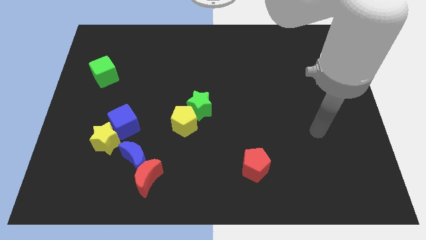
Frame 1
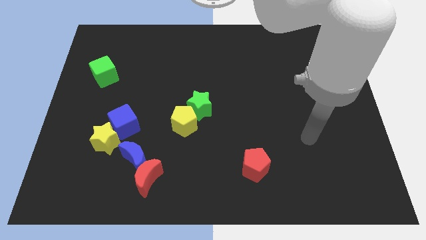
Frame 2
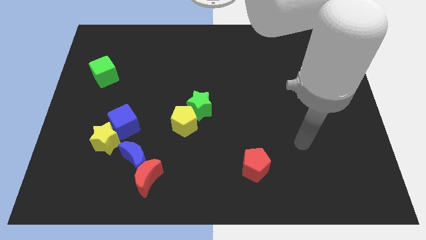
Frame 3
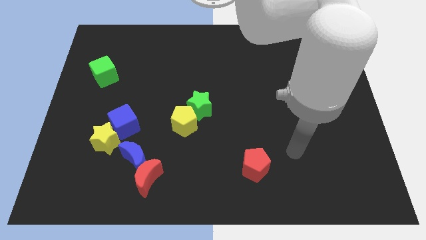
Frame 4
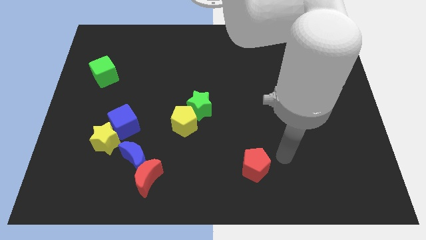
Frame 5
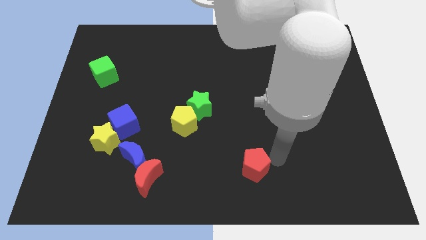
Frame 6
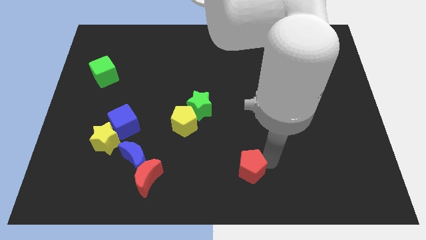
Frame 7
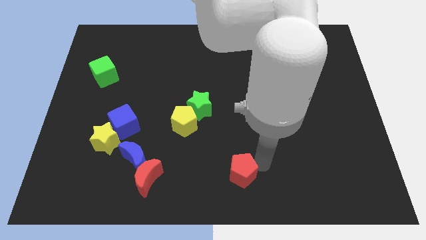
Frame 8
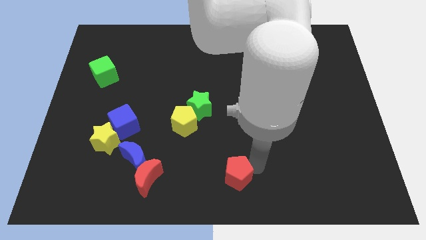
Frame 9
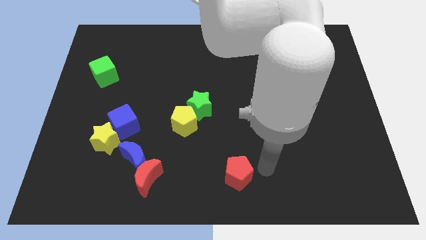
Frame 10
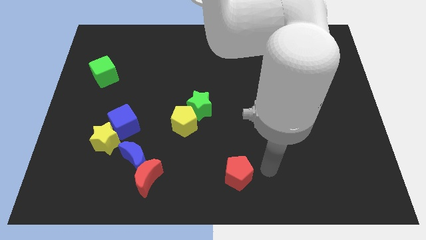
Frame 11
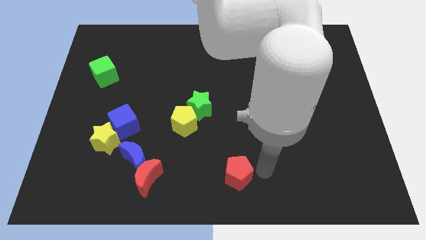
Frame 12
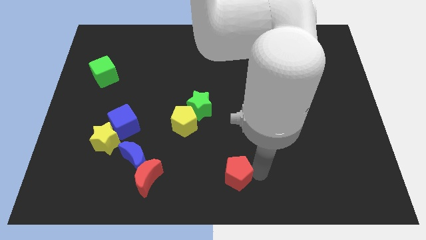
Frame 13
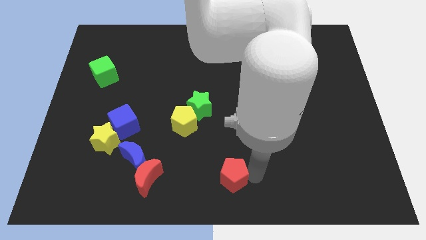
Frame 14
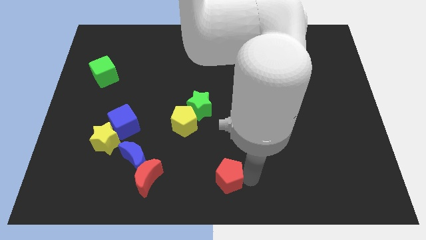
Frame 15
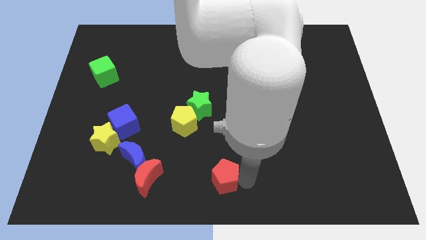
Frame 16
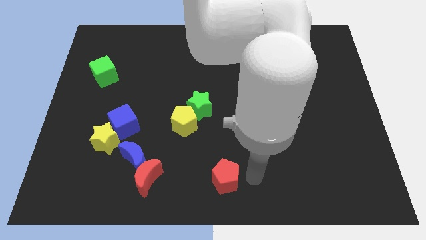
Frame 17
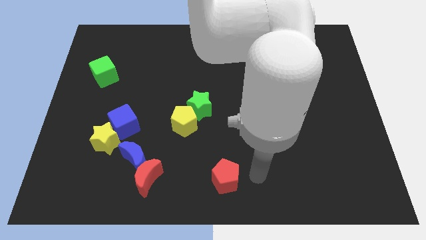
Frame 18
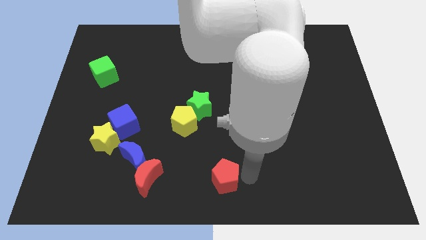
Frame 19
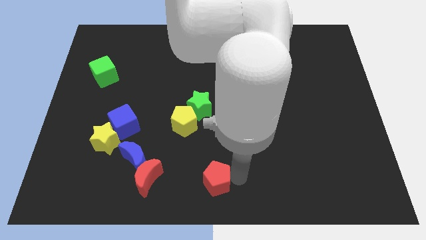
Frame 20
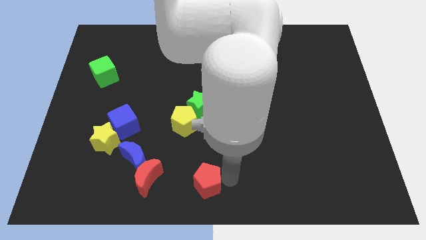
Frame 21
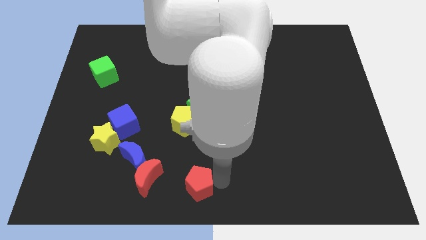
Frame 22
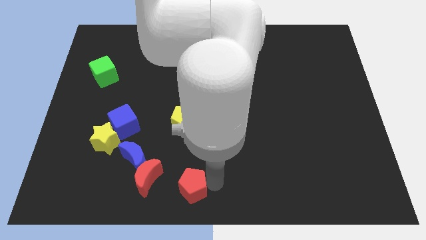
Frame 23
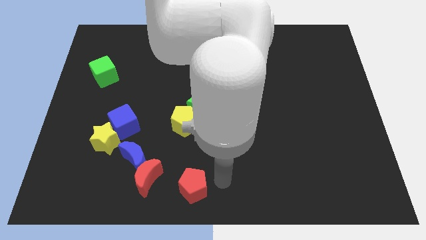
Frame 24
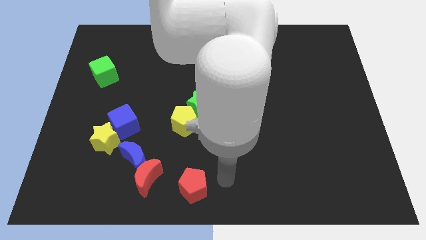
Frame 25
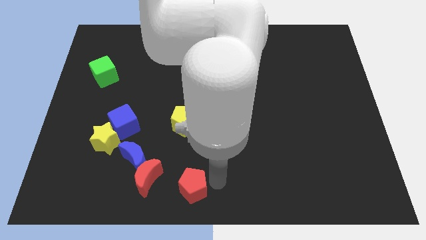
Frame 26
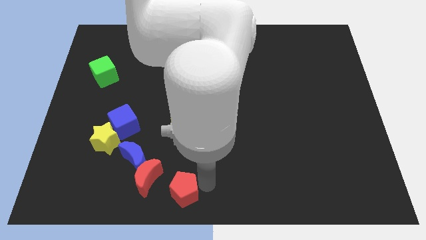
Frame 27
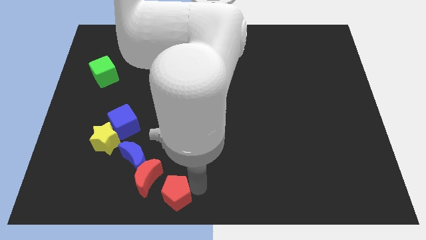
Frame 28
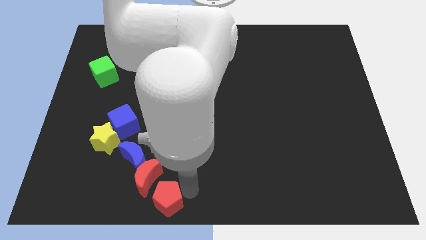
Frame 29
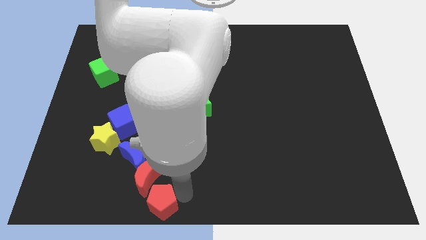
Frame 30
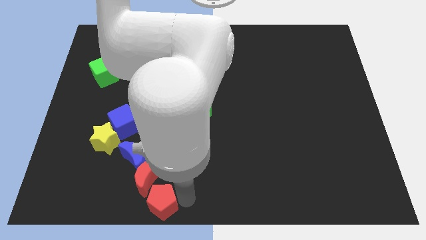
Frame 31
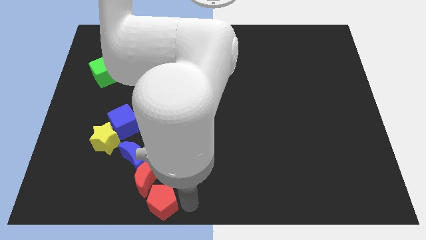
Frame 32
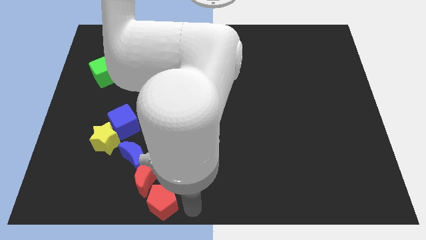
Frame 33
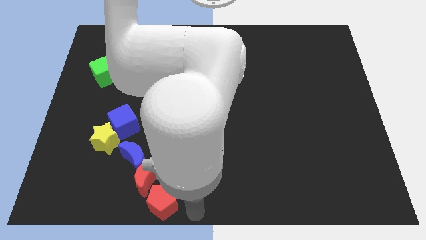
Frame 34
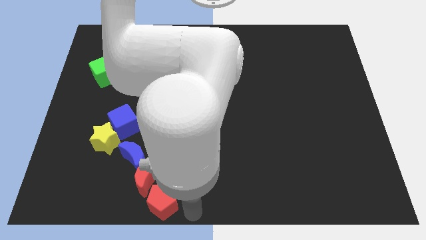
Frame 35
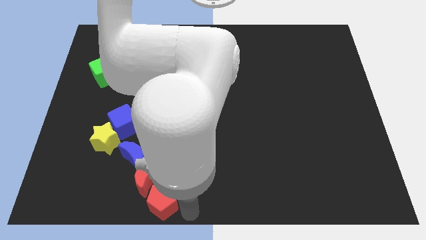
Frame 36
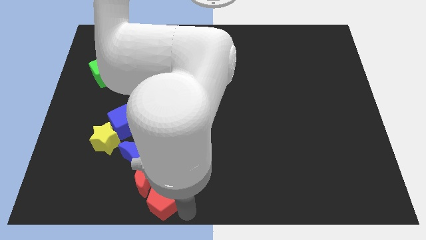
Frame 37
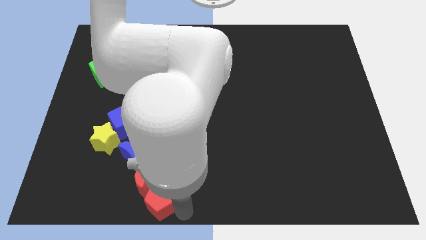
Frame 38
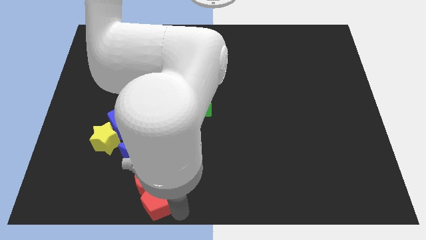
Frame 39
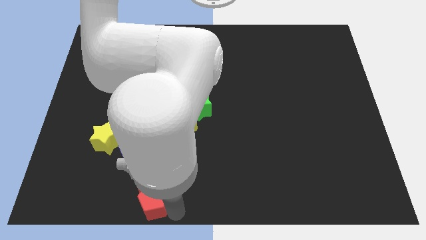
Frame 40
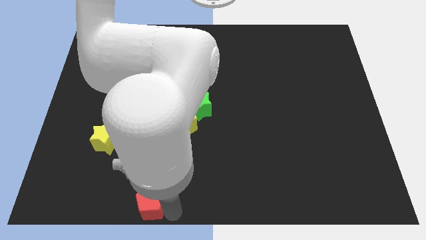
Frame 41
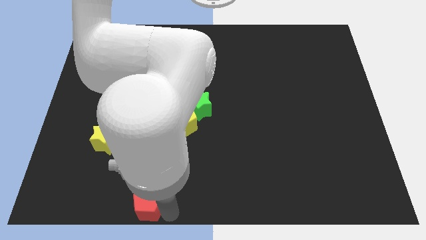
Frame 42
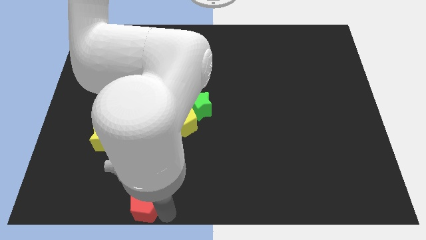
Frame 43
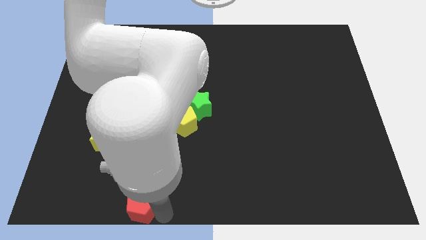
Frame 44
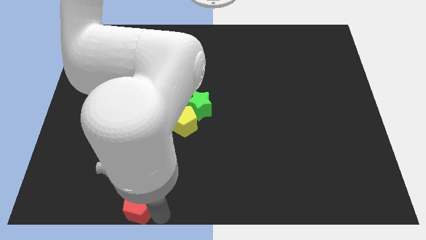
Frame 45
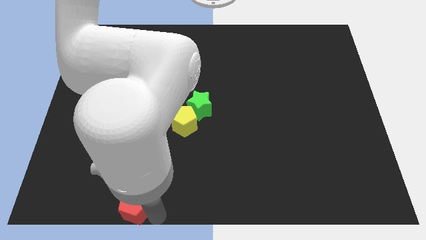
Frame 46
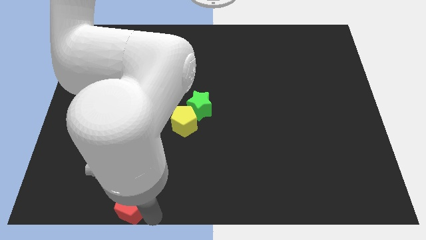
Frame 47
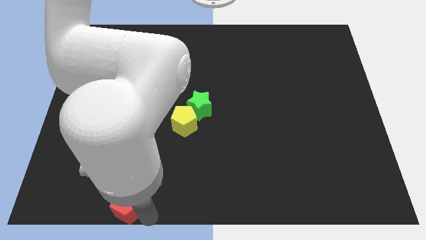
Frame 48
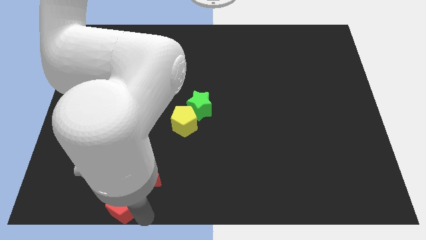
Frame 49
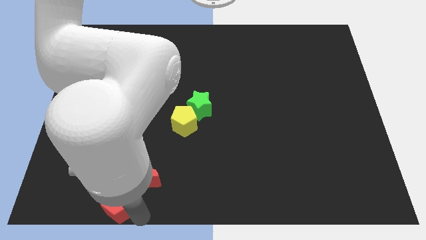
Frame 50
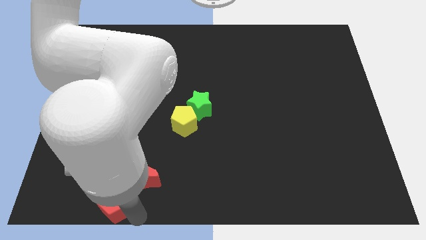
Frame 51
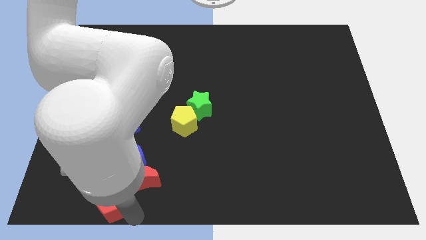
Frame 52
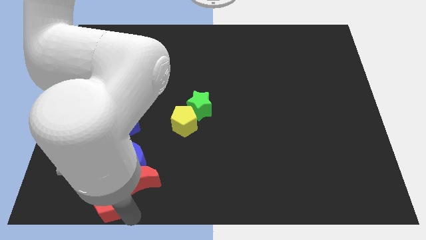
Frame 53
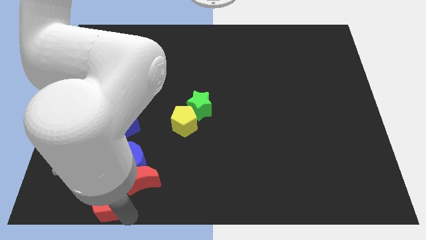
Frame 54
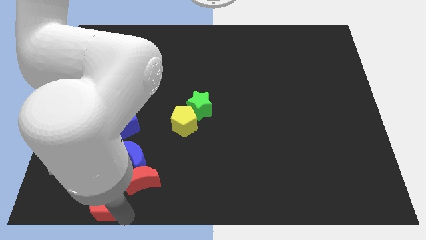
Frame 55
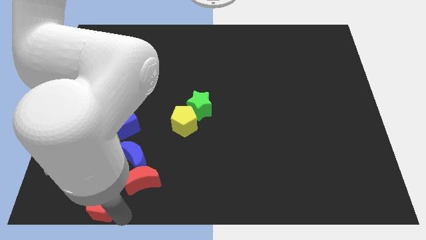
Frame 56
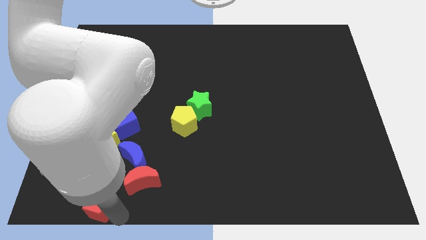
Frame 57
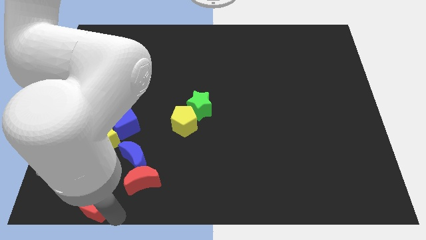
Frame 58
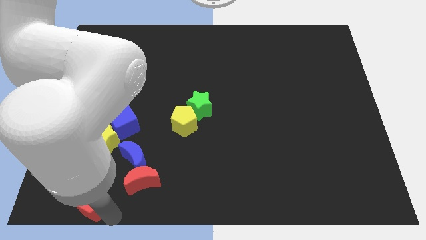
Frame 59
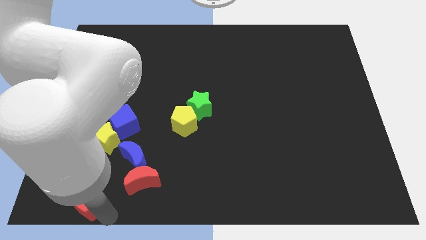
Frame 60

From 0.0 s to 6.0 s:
put the red pentagon to the left of the red moon
